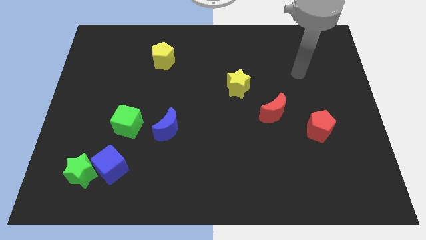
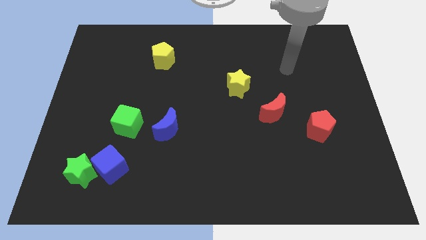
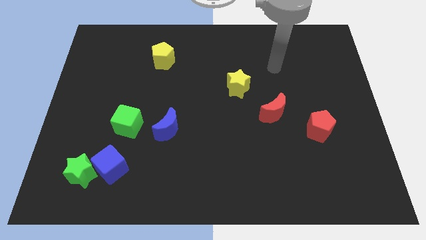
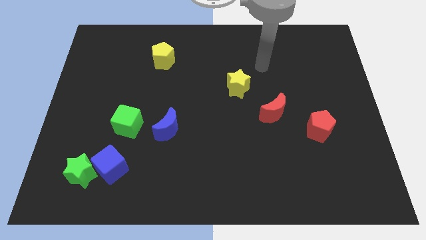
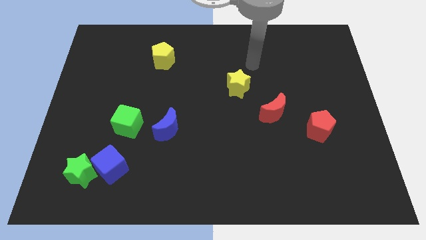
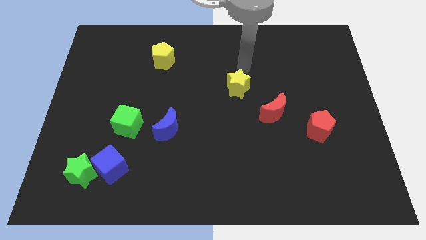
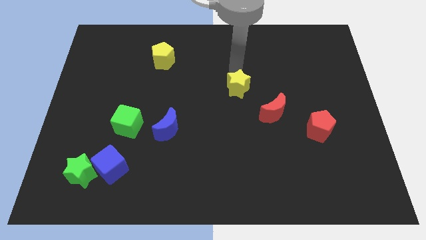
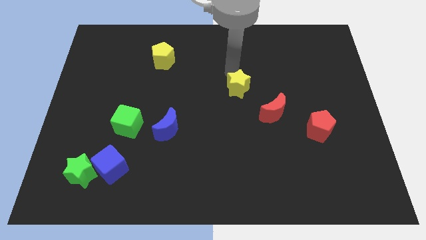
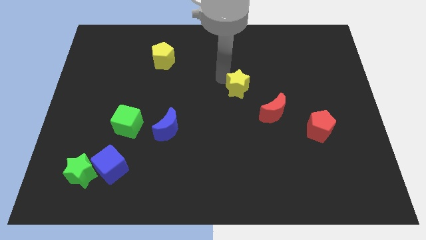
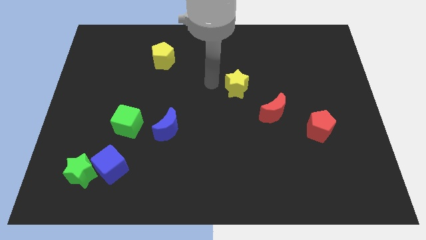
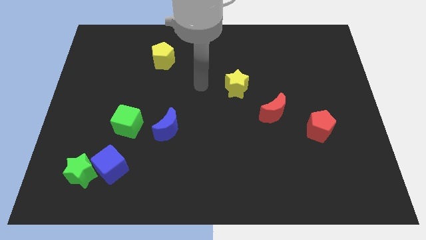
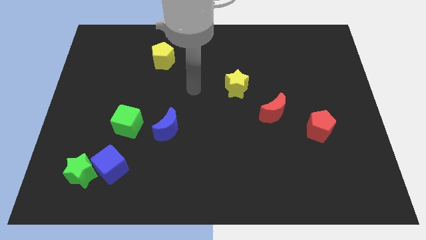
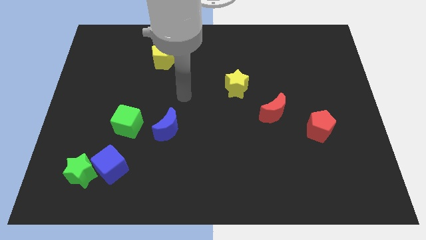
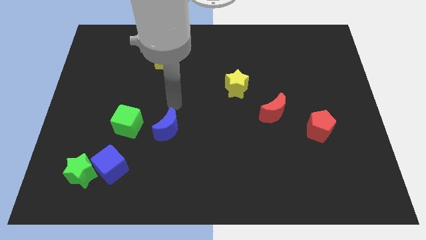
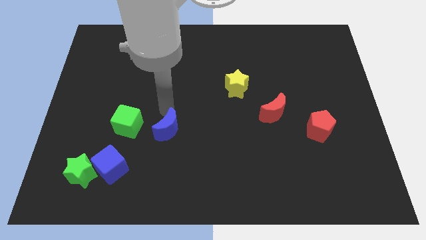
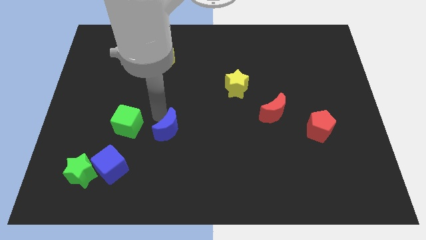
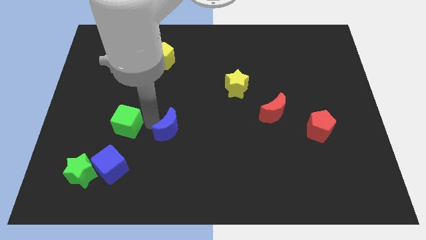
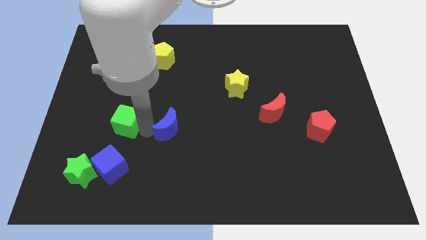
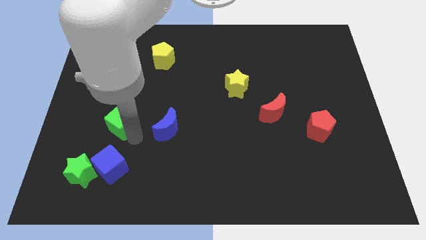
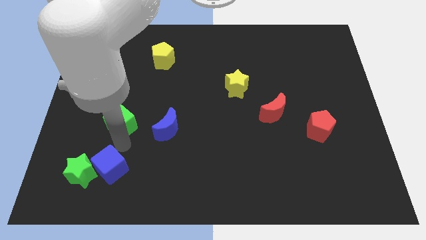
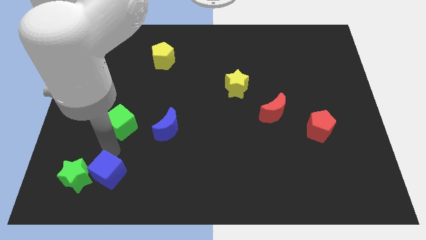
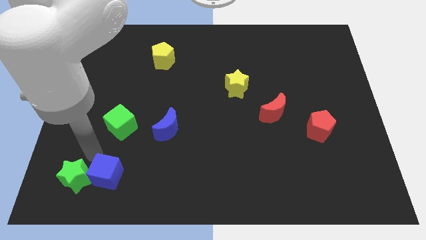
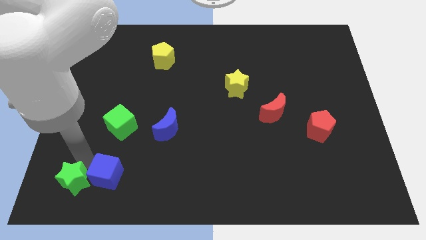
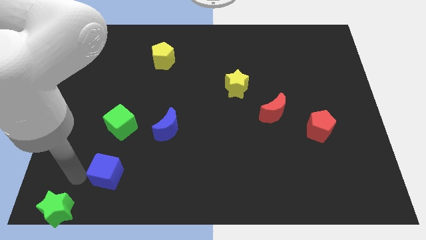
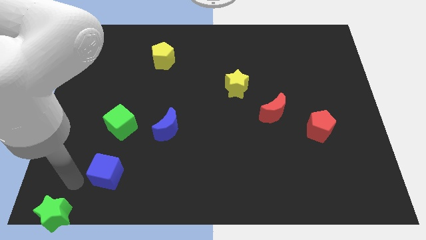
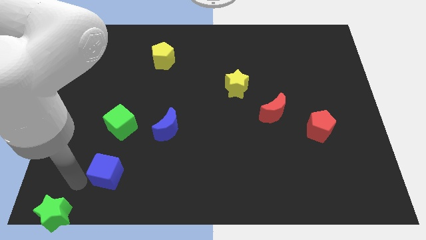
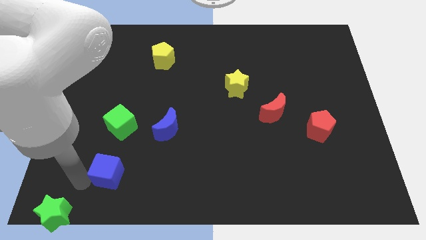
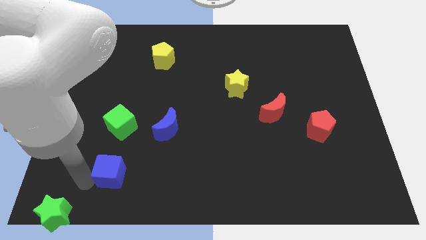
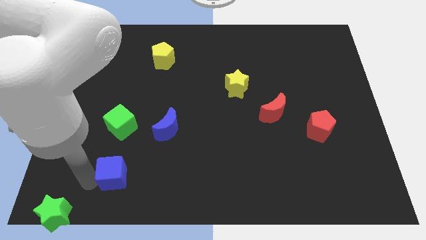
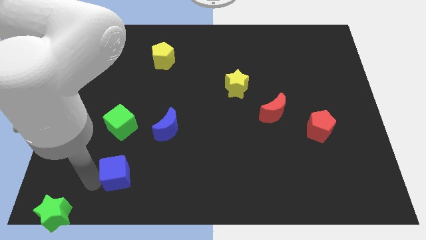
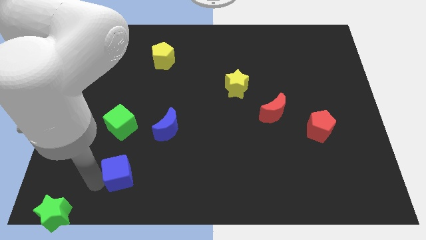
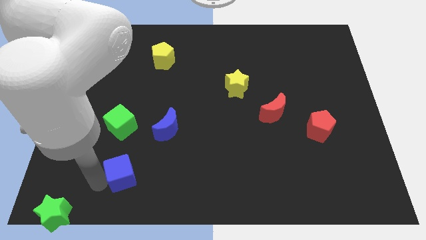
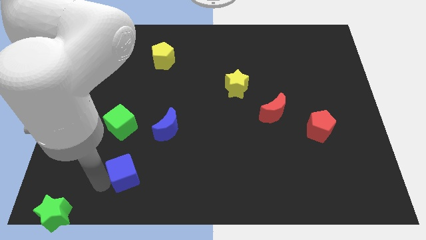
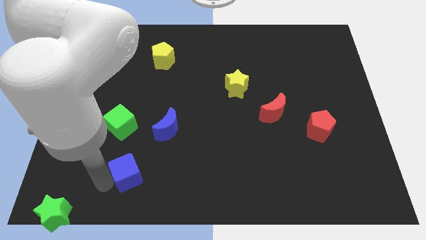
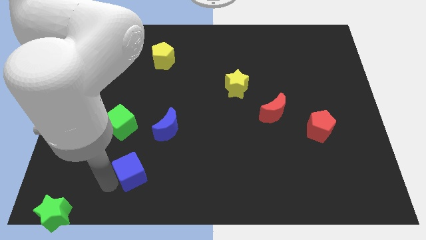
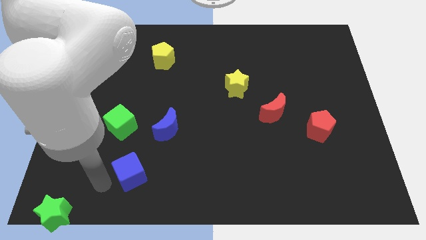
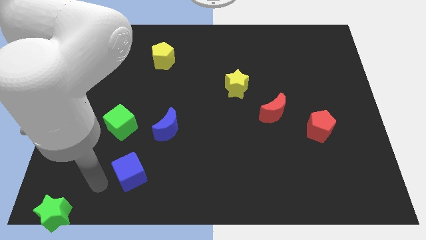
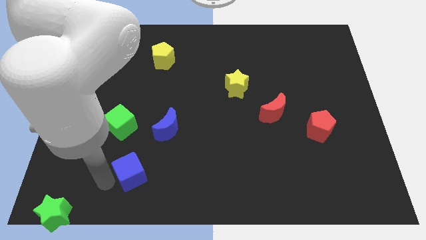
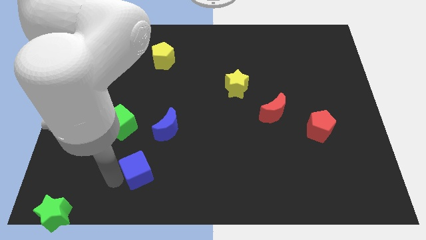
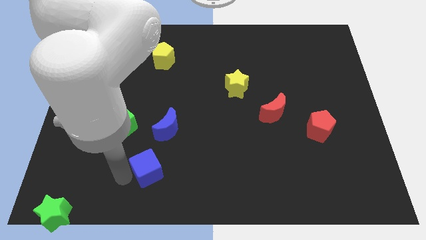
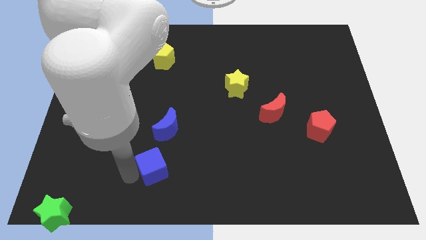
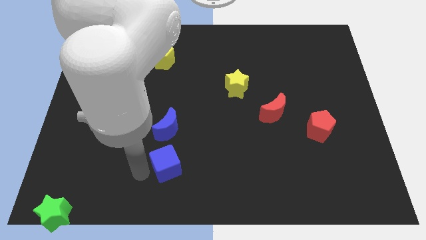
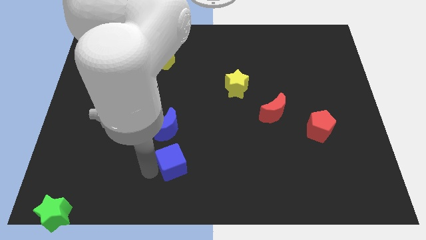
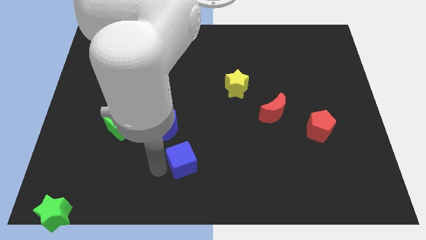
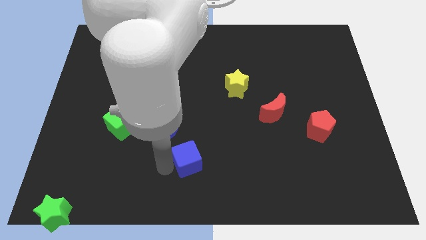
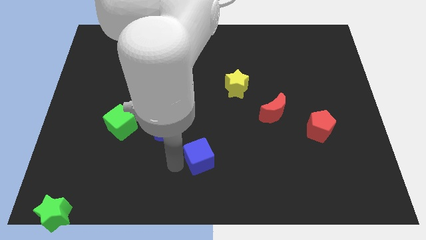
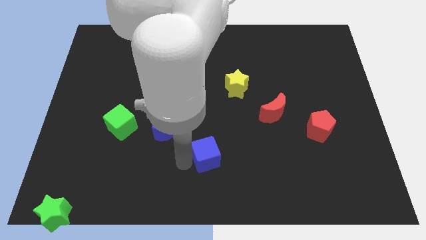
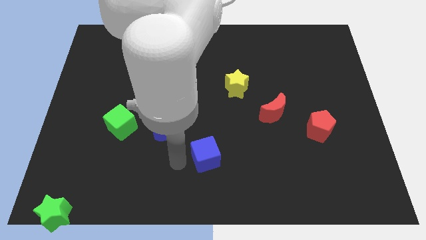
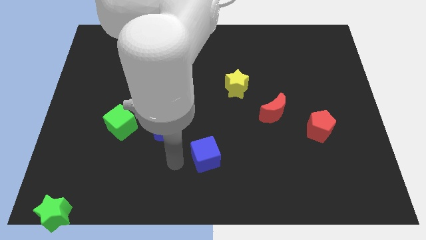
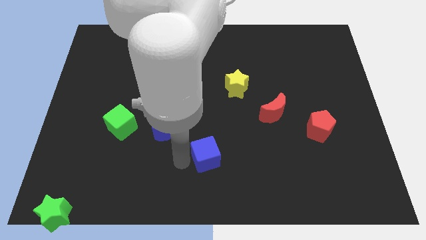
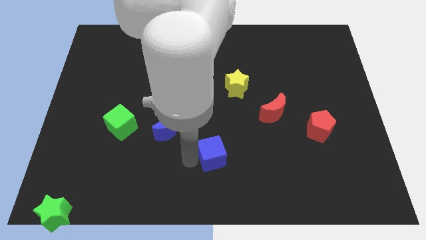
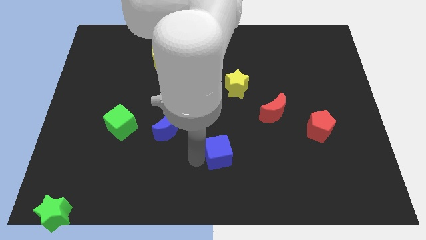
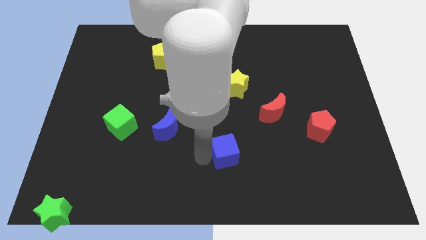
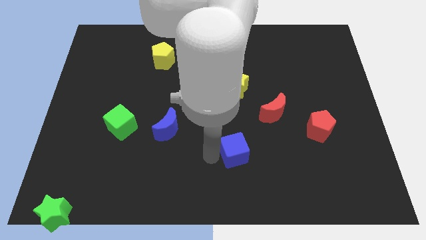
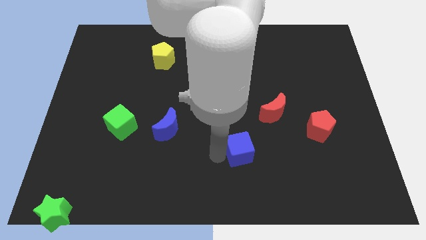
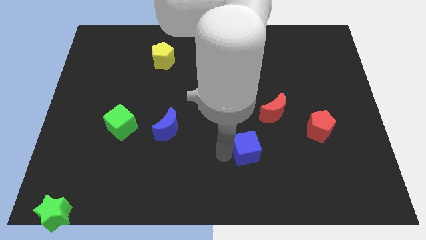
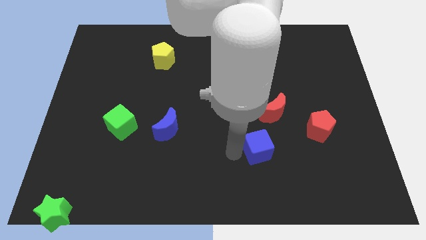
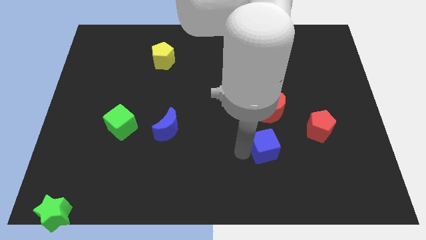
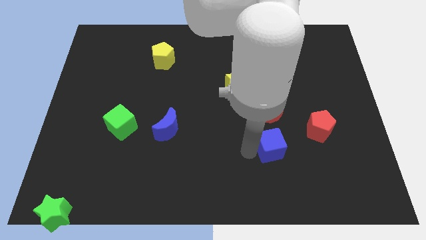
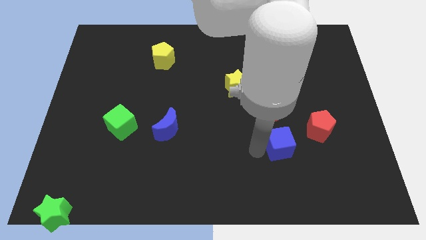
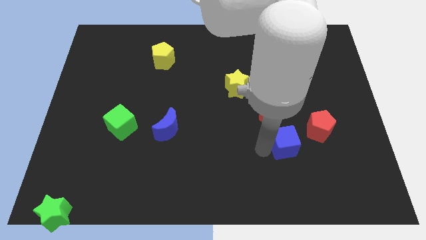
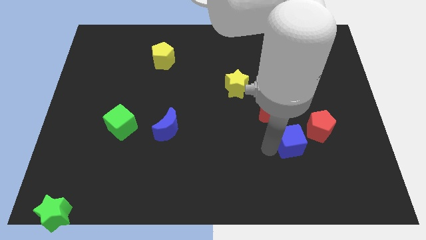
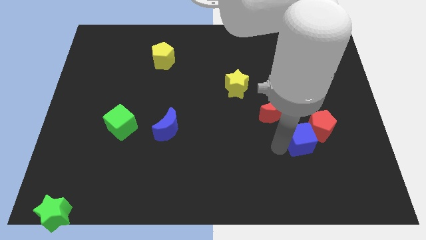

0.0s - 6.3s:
push the blue cube towards the red pentagon

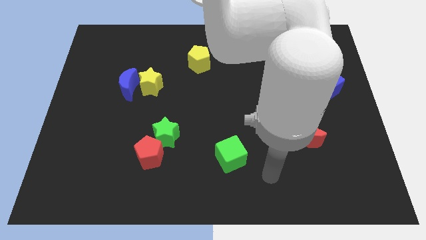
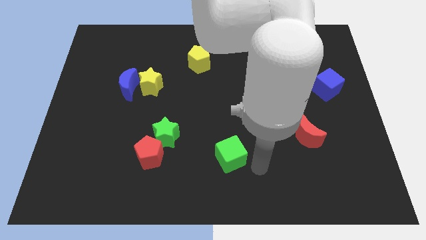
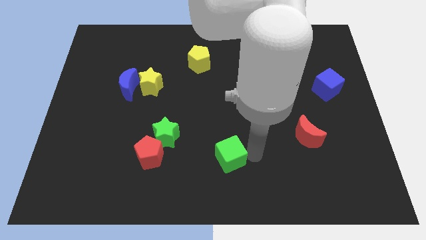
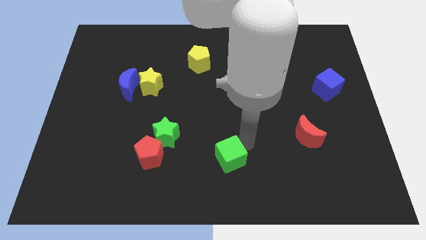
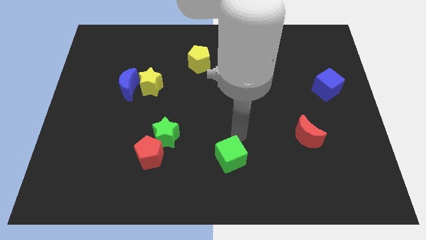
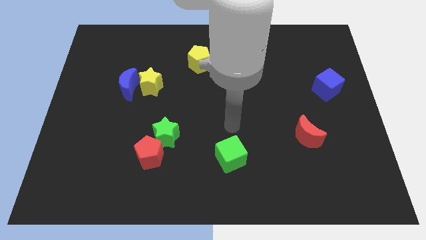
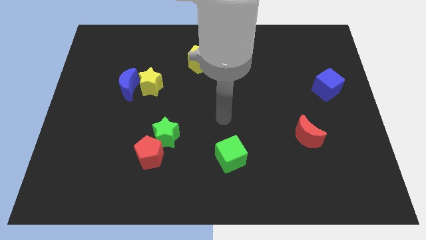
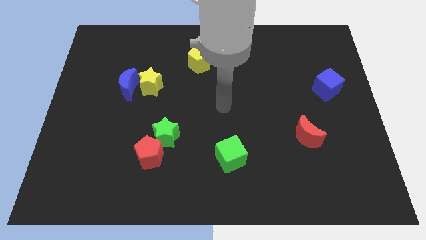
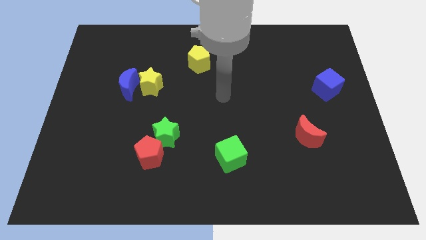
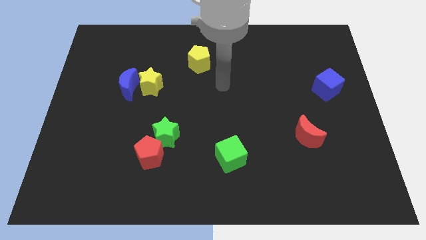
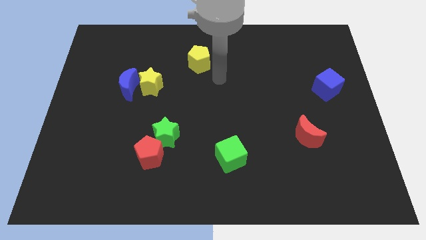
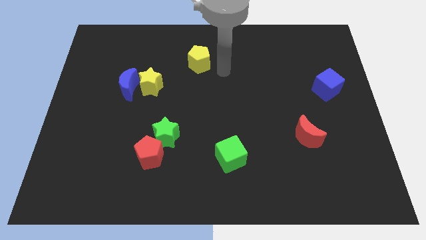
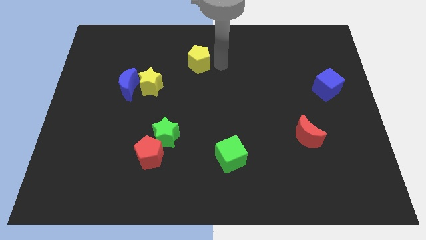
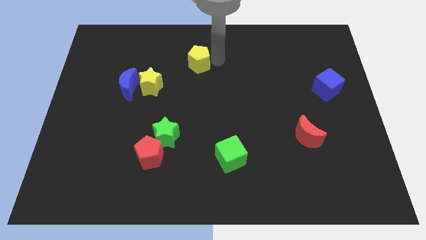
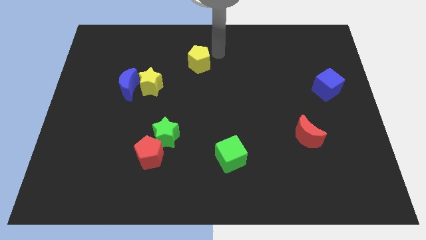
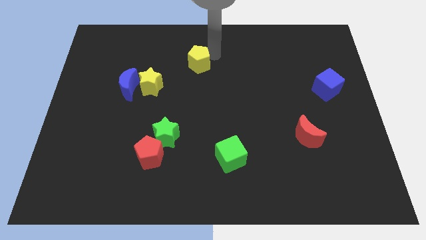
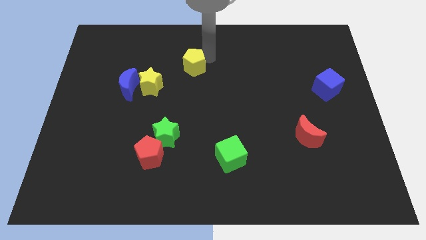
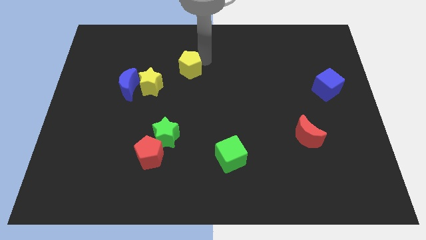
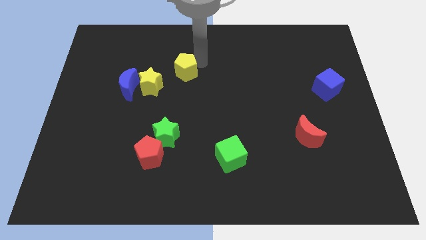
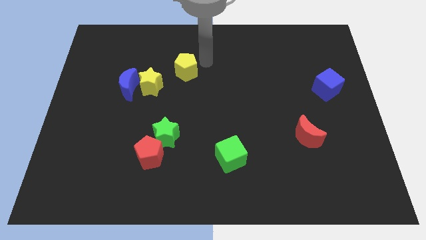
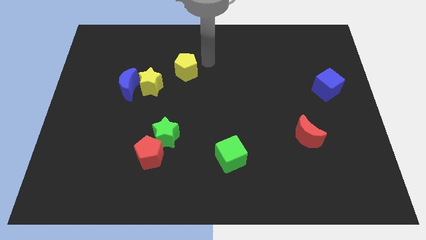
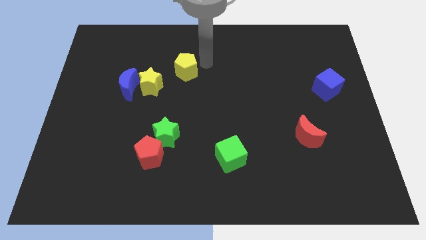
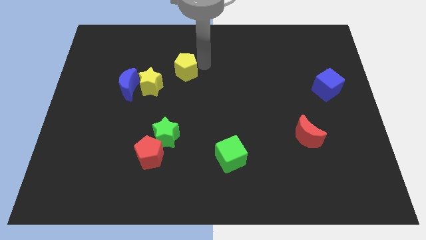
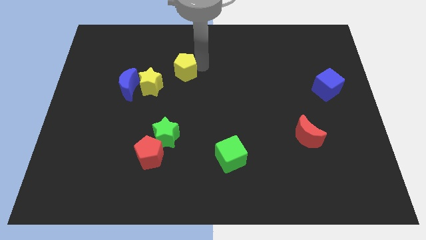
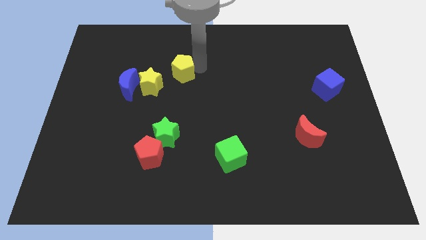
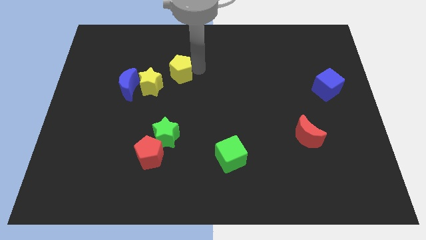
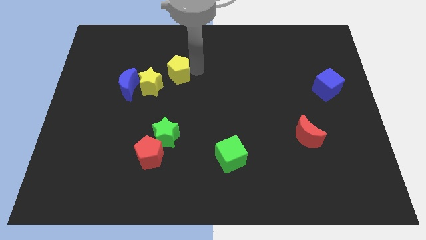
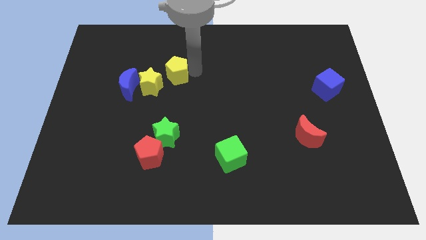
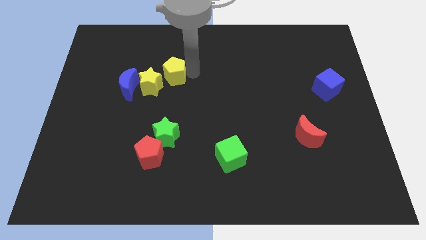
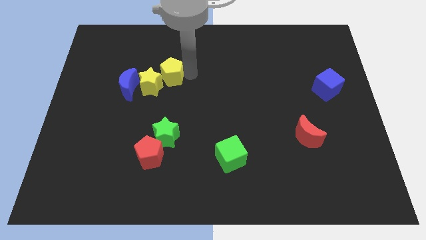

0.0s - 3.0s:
slide the yellow pentagon next to the yellow star
